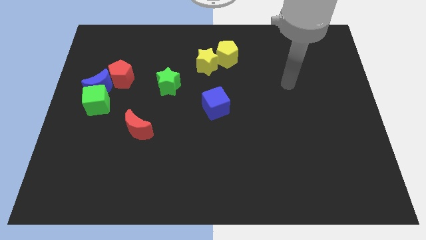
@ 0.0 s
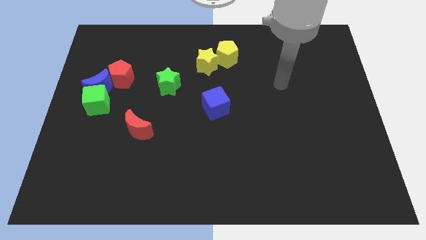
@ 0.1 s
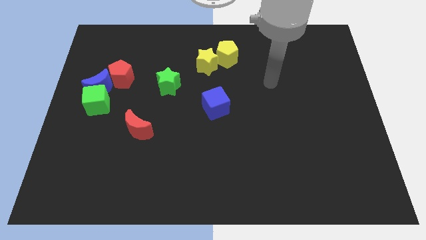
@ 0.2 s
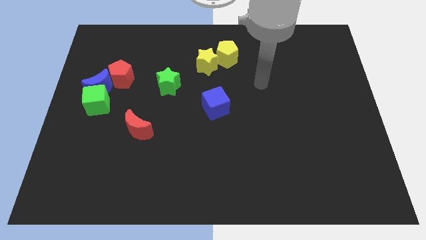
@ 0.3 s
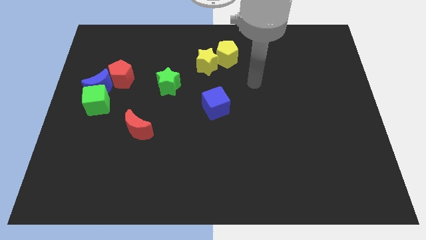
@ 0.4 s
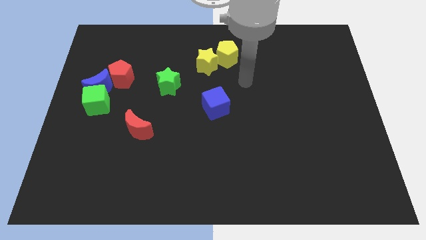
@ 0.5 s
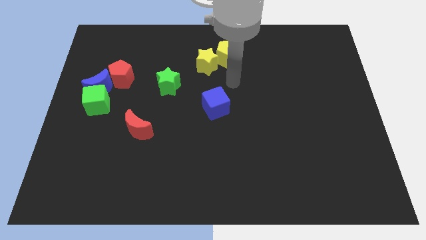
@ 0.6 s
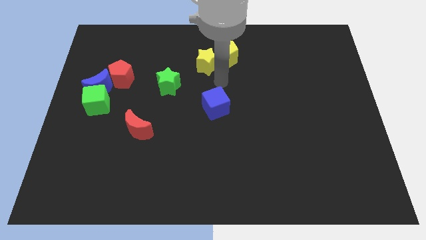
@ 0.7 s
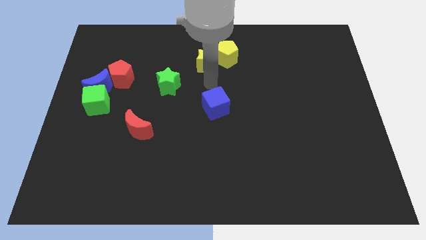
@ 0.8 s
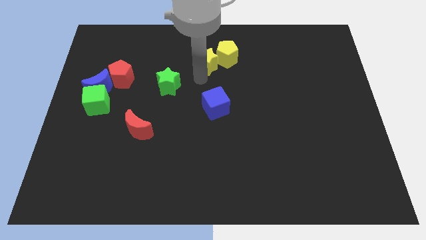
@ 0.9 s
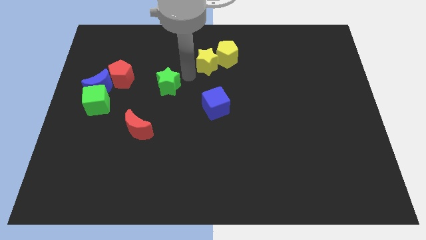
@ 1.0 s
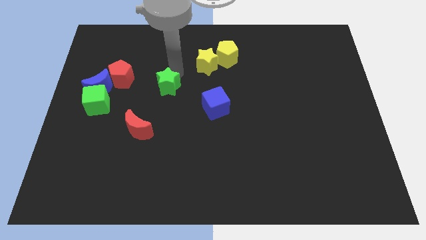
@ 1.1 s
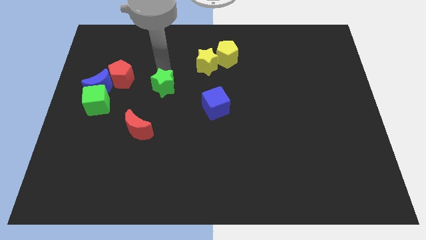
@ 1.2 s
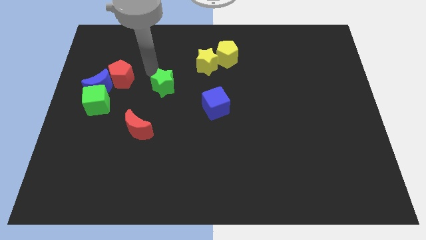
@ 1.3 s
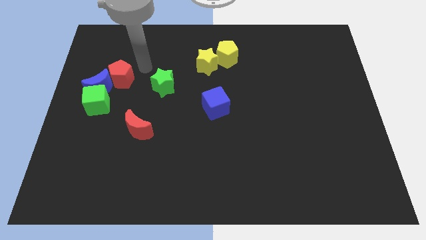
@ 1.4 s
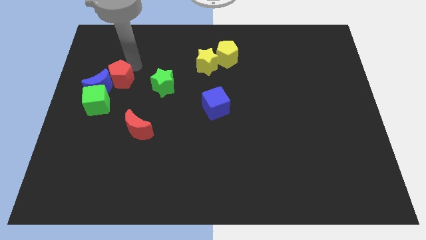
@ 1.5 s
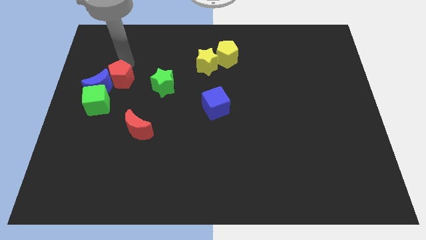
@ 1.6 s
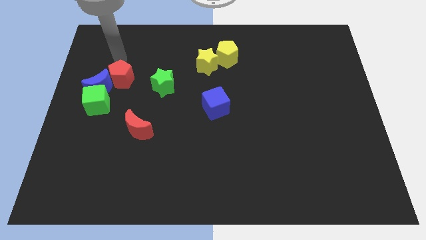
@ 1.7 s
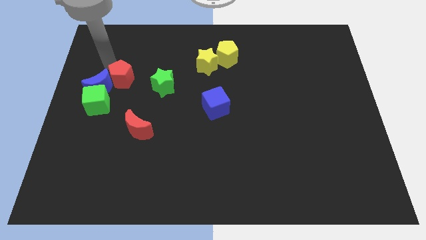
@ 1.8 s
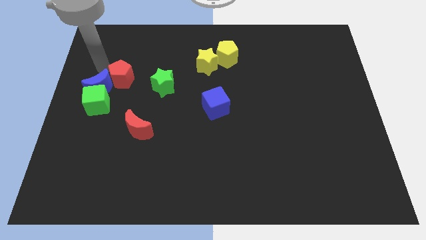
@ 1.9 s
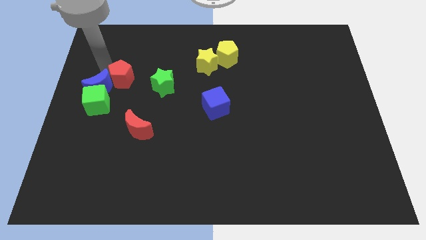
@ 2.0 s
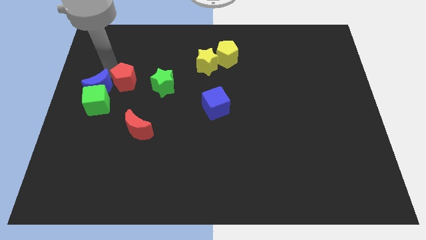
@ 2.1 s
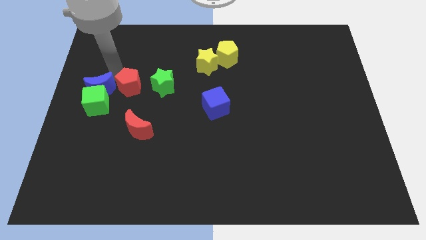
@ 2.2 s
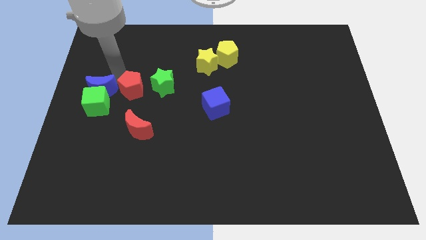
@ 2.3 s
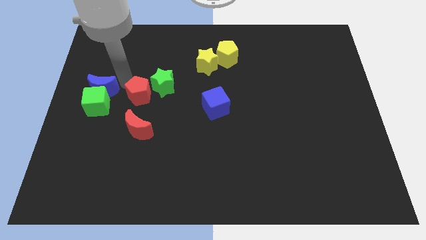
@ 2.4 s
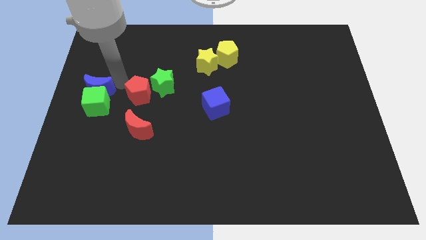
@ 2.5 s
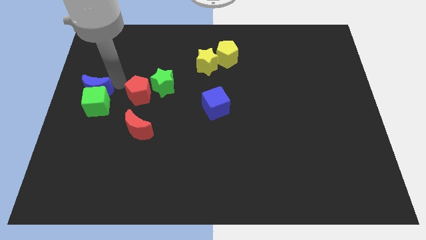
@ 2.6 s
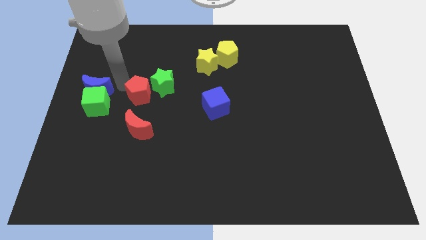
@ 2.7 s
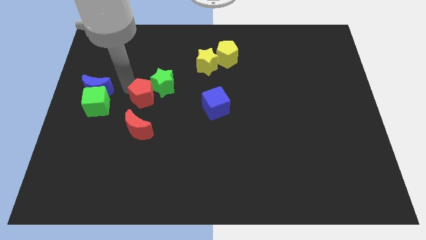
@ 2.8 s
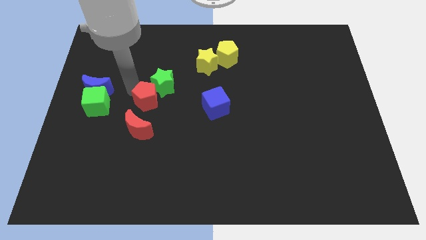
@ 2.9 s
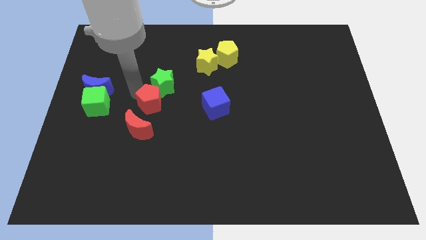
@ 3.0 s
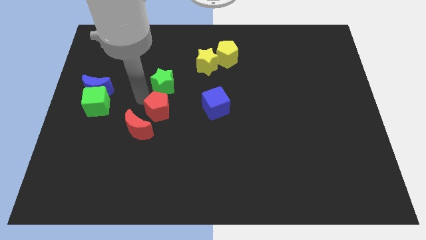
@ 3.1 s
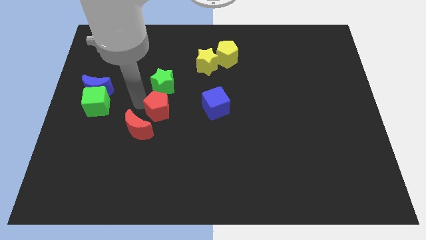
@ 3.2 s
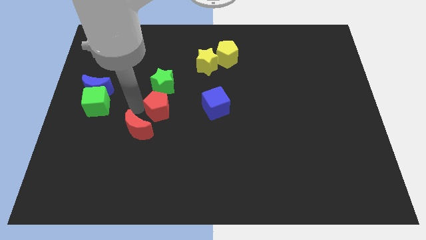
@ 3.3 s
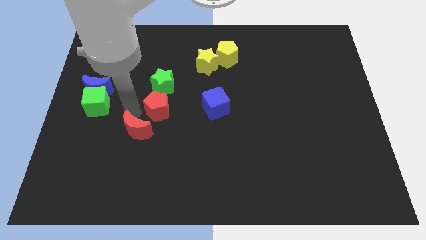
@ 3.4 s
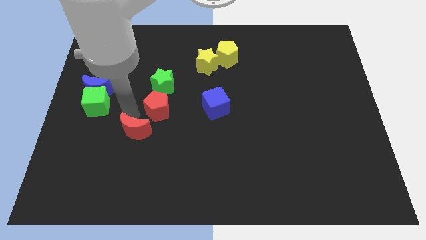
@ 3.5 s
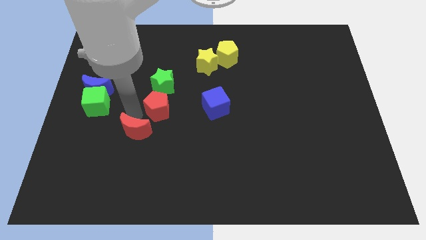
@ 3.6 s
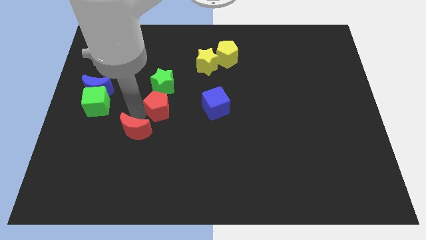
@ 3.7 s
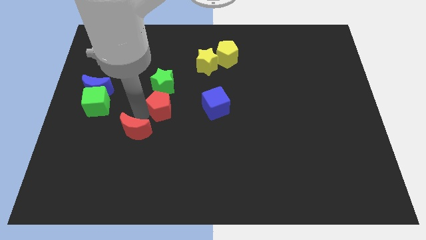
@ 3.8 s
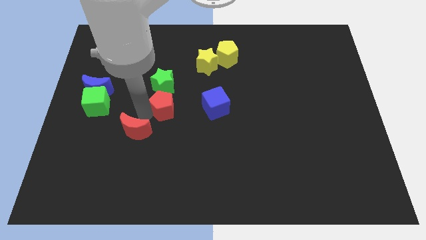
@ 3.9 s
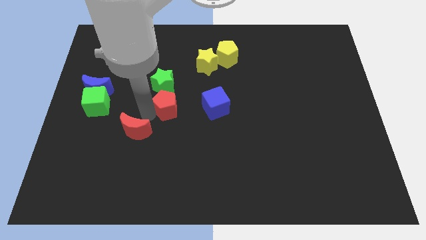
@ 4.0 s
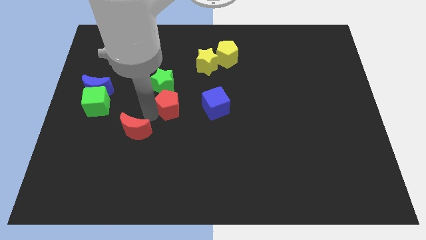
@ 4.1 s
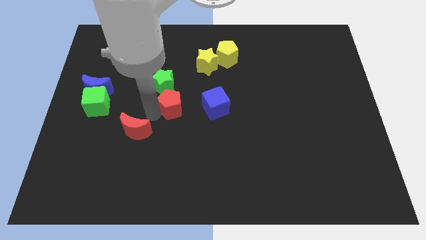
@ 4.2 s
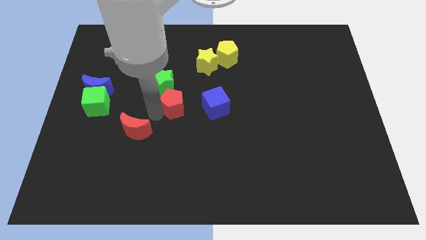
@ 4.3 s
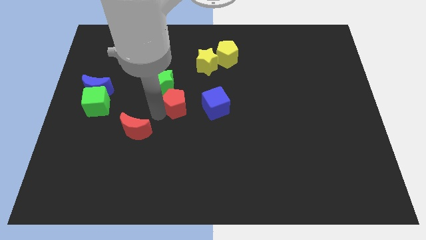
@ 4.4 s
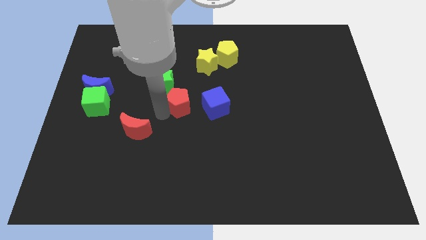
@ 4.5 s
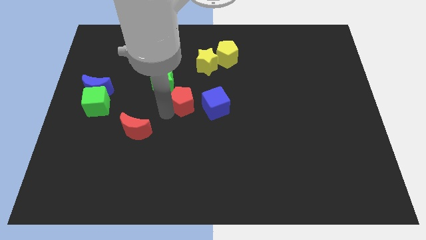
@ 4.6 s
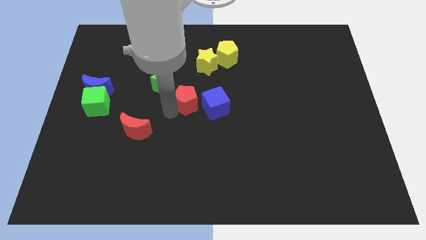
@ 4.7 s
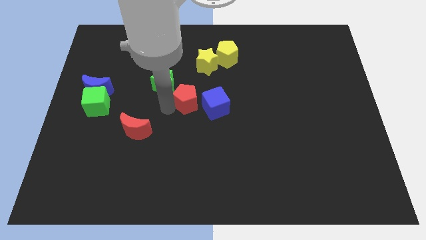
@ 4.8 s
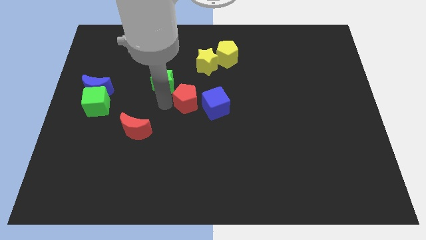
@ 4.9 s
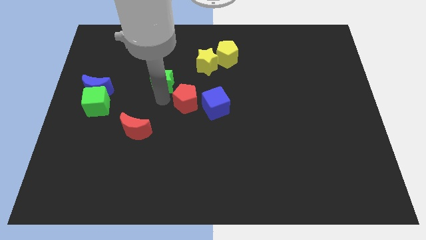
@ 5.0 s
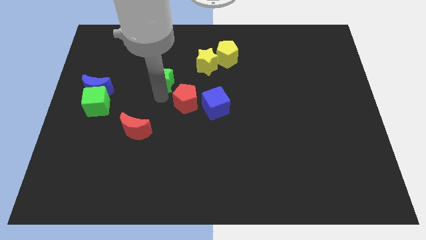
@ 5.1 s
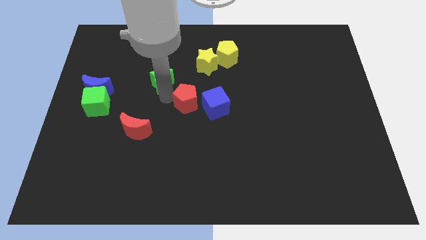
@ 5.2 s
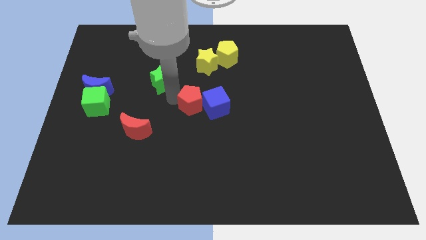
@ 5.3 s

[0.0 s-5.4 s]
put the red pentagon next to the blue cube

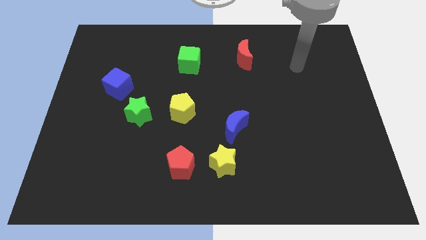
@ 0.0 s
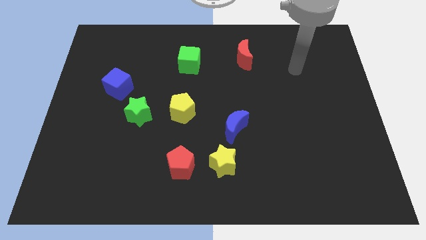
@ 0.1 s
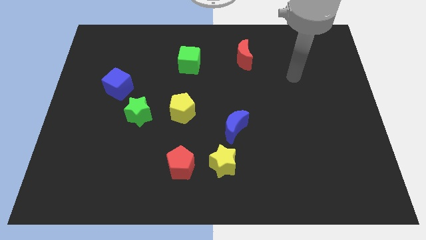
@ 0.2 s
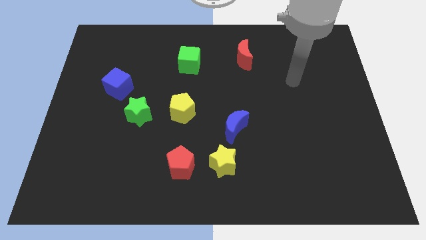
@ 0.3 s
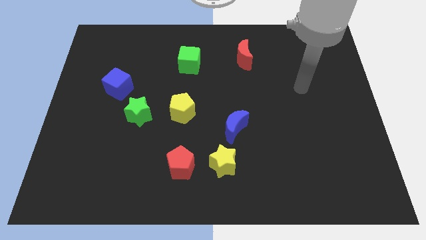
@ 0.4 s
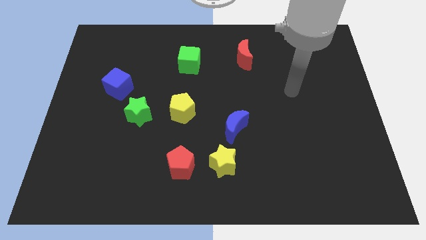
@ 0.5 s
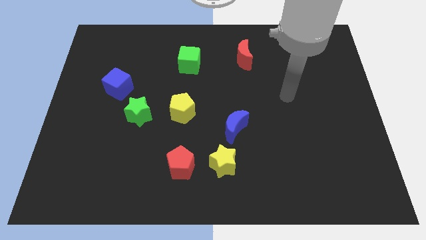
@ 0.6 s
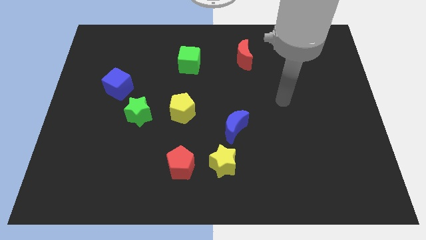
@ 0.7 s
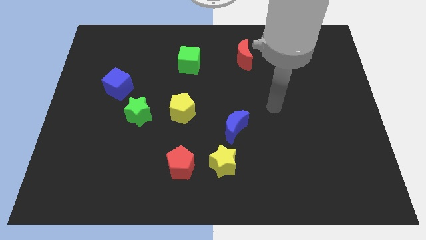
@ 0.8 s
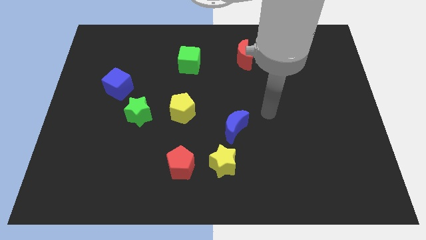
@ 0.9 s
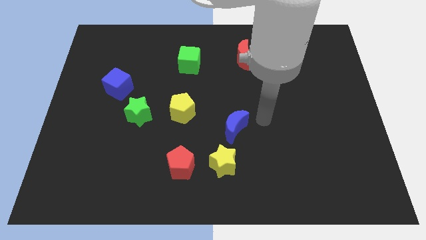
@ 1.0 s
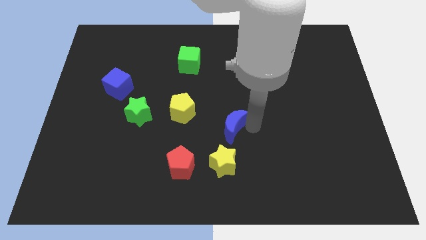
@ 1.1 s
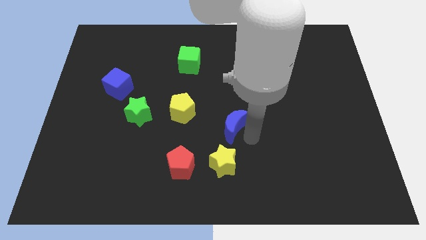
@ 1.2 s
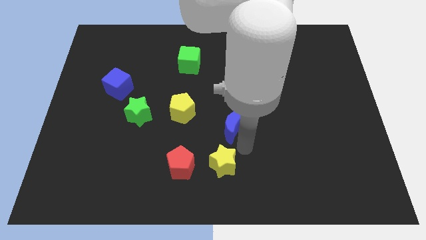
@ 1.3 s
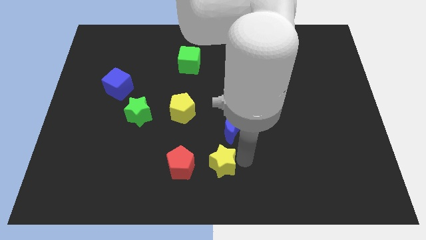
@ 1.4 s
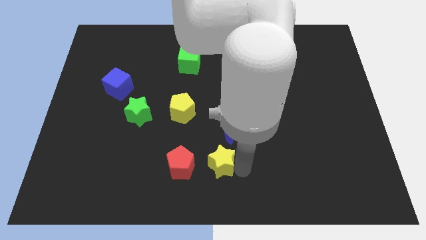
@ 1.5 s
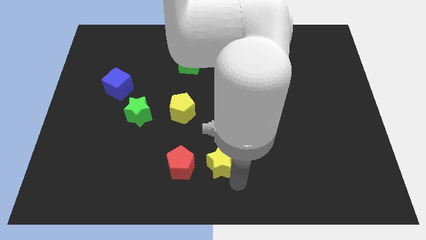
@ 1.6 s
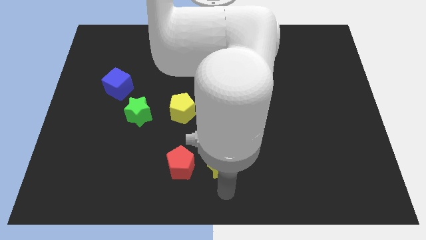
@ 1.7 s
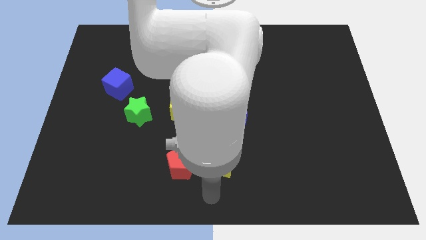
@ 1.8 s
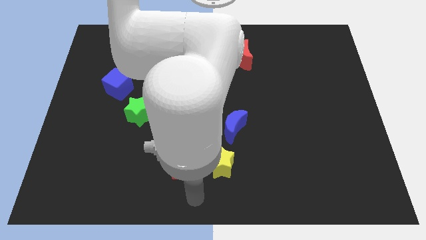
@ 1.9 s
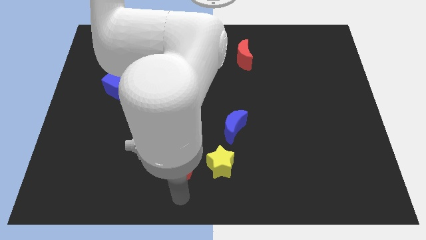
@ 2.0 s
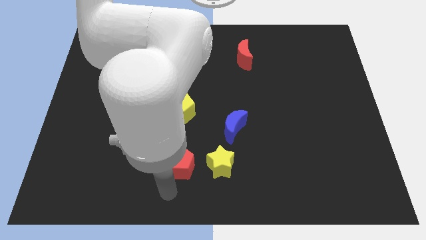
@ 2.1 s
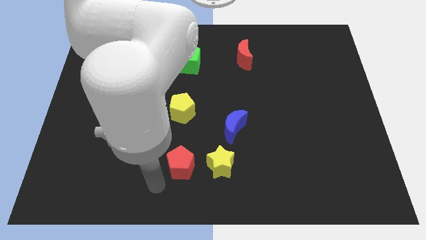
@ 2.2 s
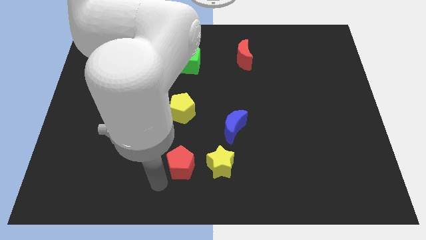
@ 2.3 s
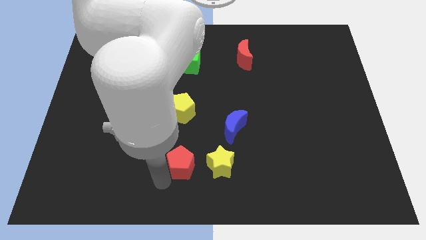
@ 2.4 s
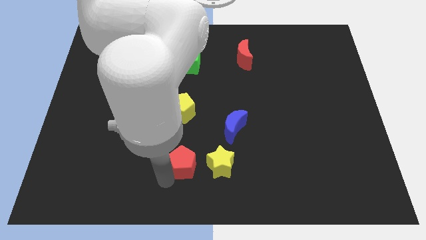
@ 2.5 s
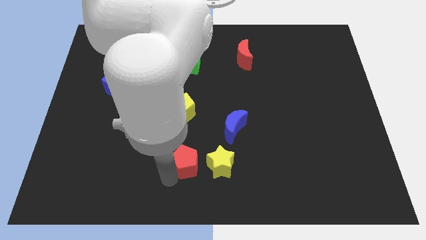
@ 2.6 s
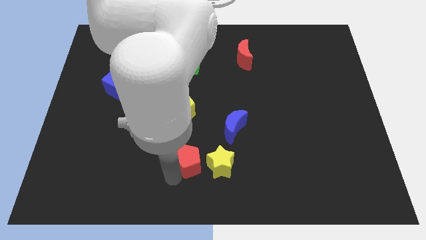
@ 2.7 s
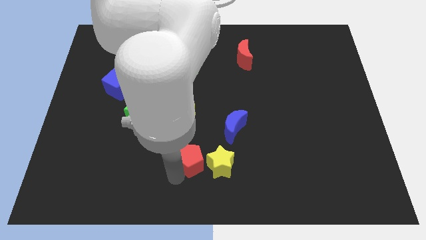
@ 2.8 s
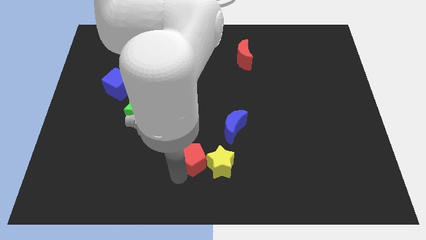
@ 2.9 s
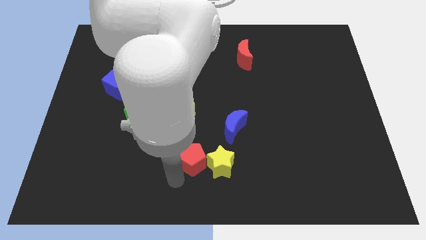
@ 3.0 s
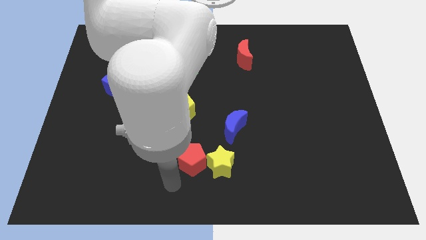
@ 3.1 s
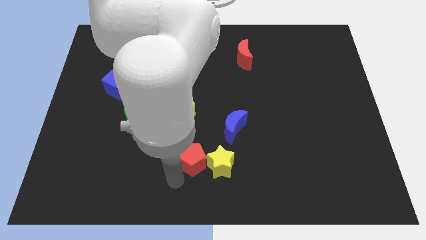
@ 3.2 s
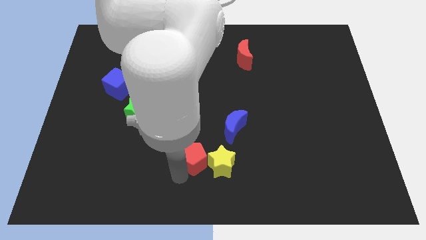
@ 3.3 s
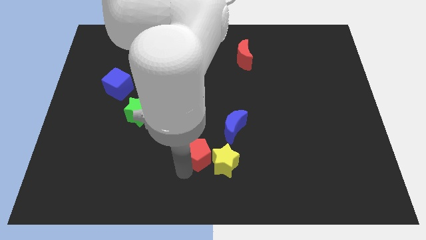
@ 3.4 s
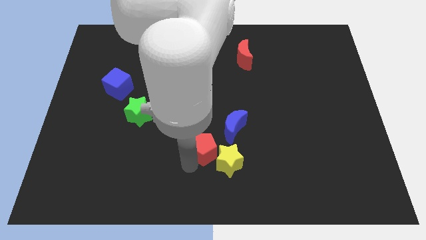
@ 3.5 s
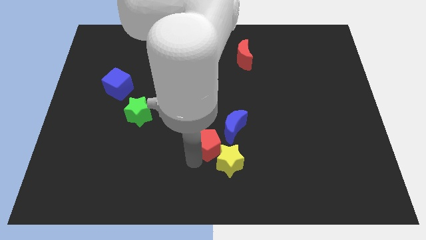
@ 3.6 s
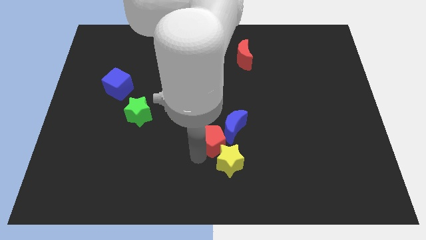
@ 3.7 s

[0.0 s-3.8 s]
push the red pentagon to the blue moon
